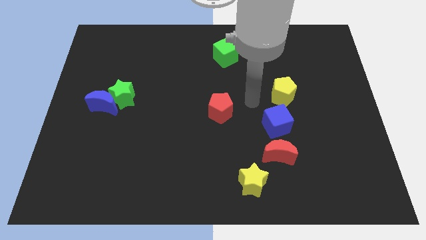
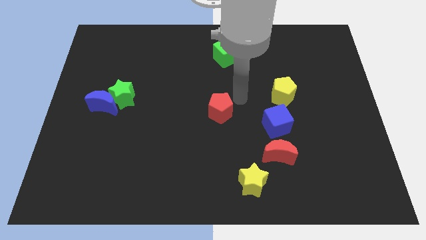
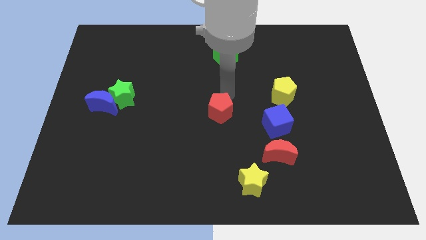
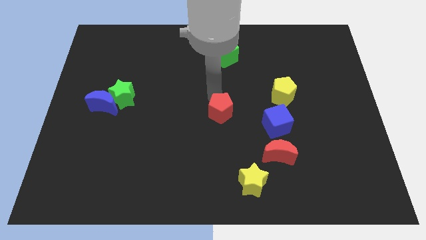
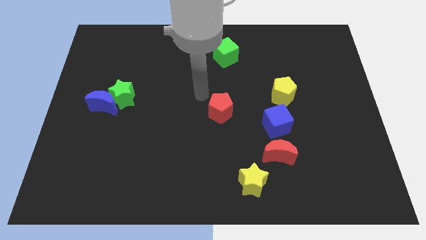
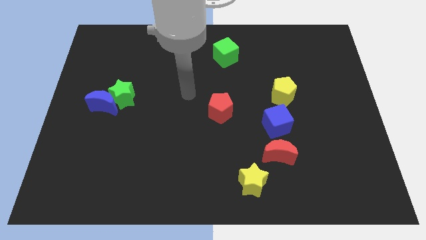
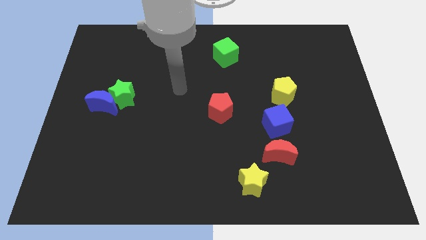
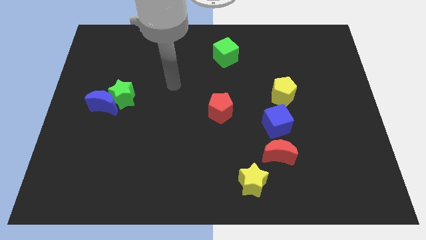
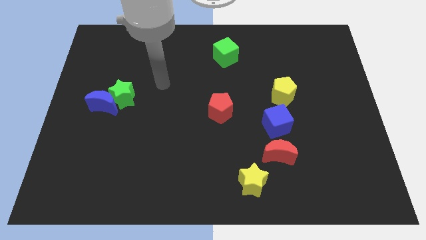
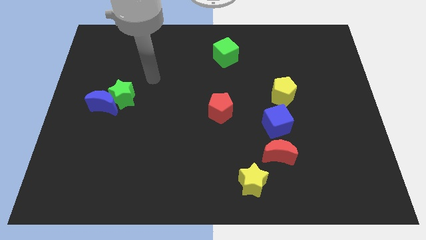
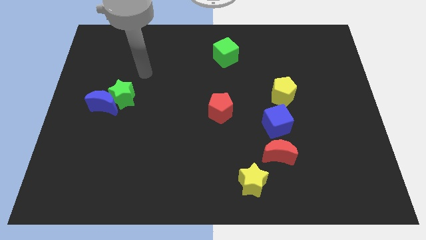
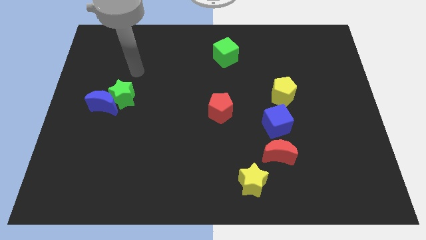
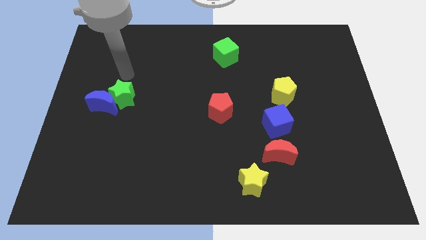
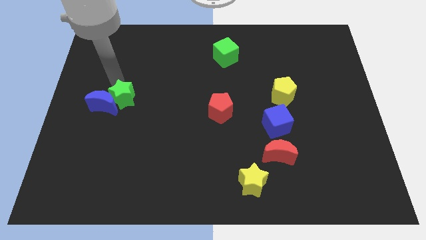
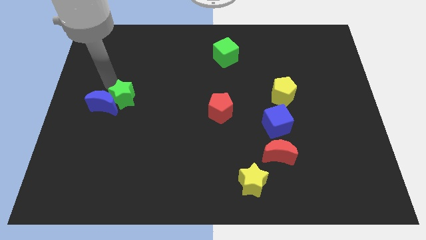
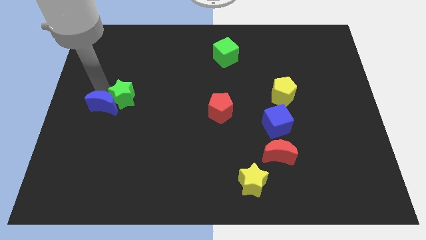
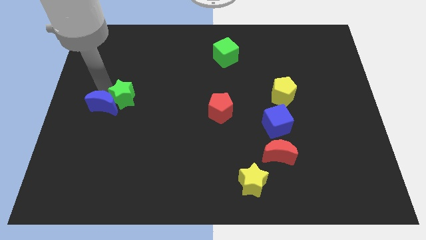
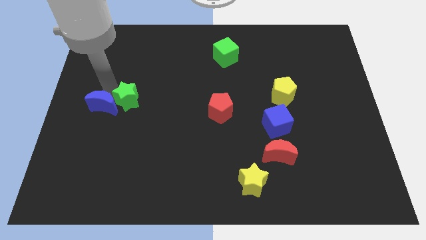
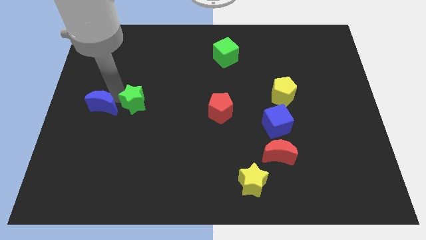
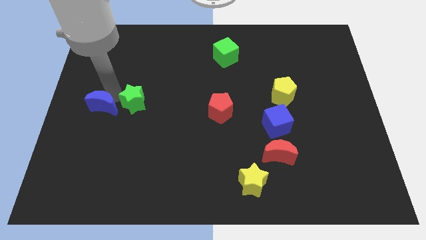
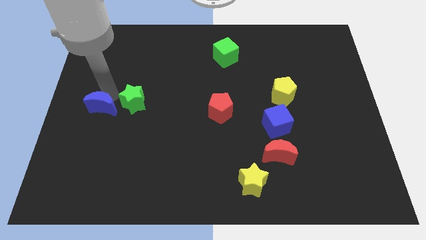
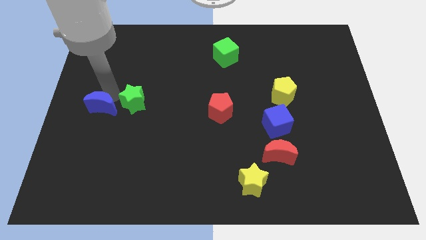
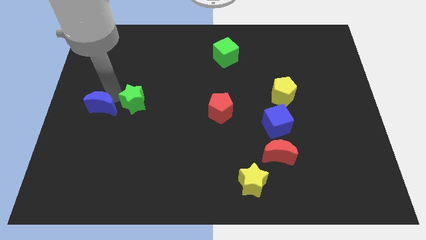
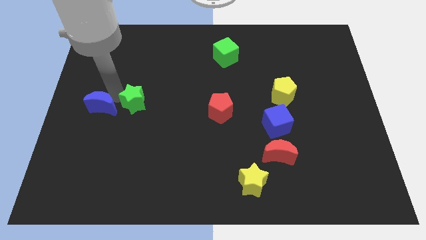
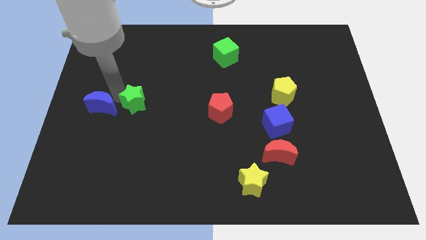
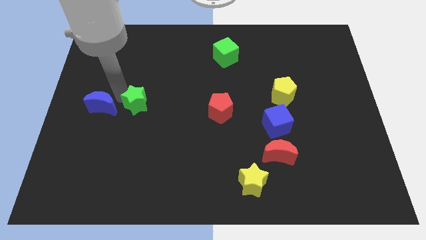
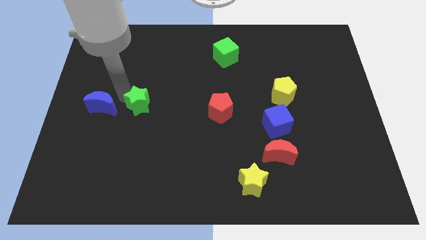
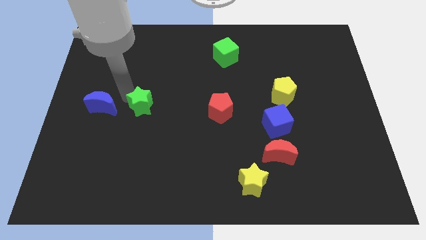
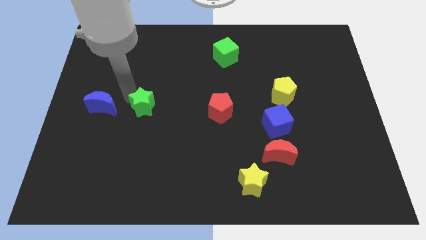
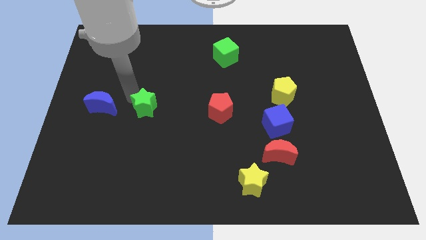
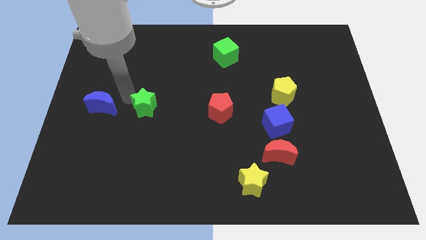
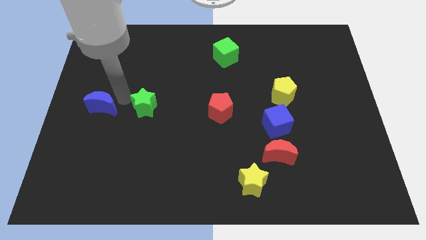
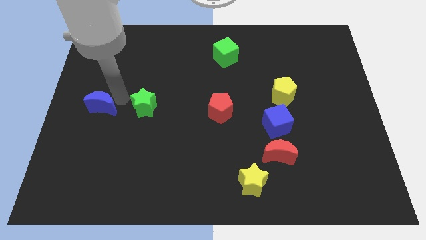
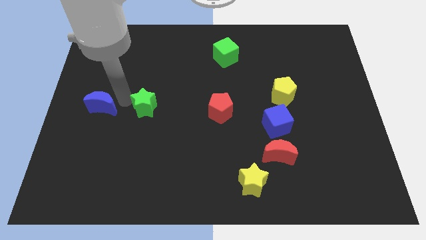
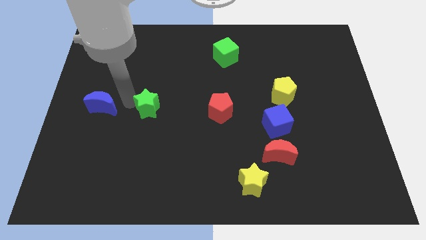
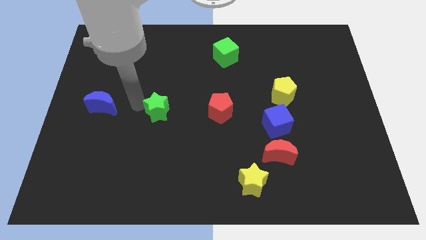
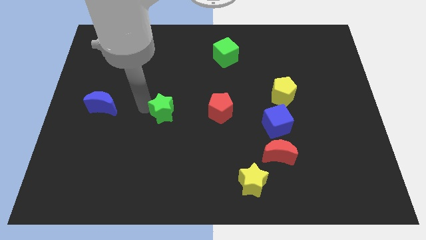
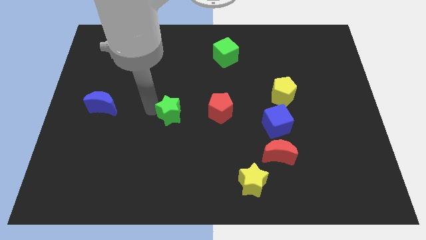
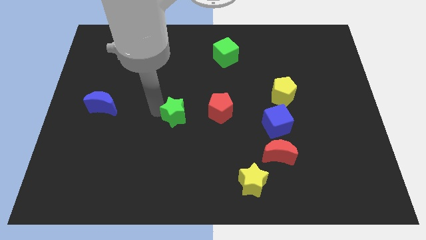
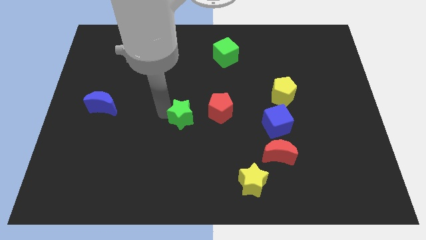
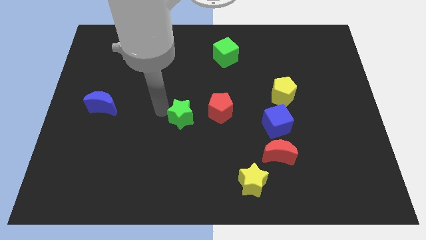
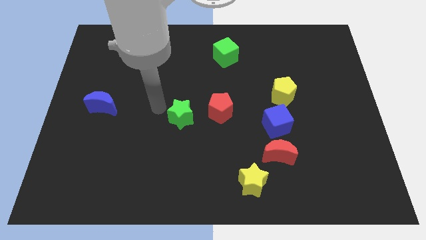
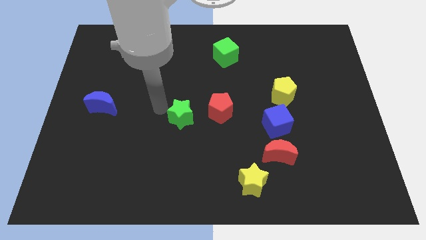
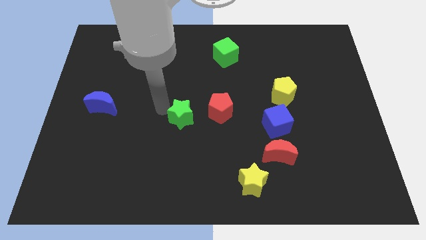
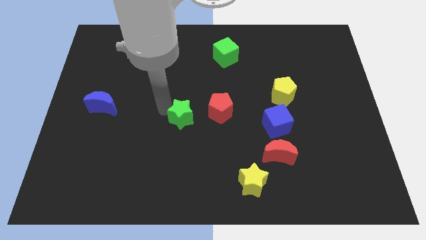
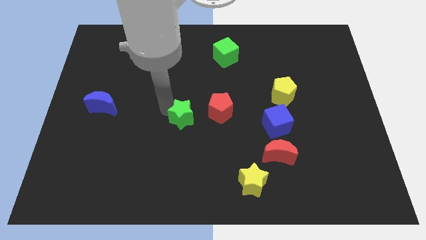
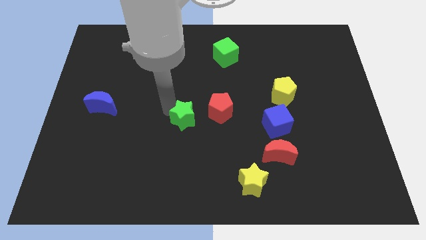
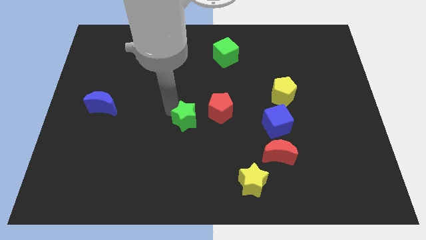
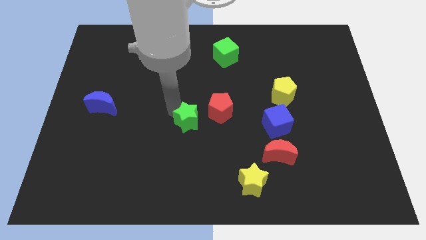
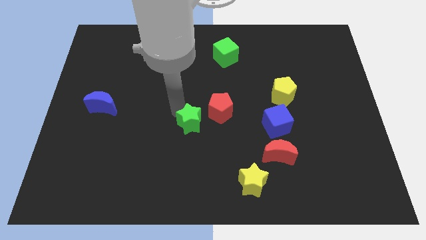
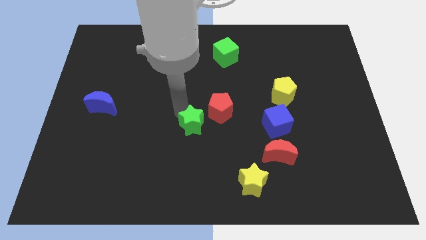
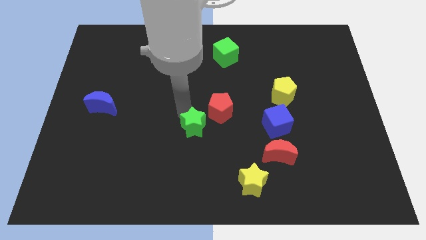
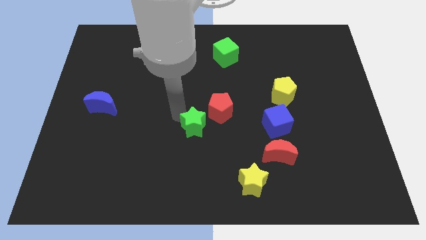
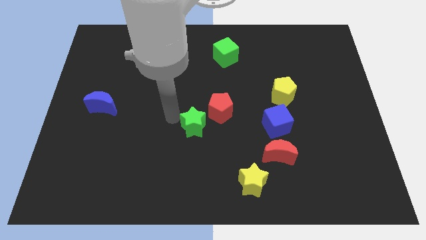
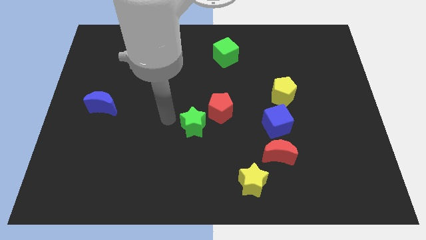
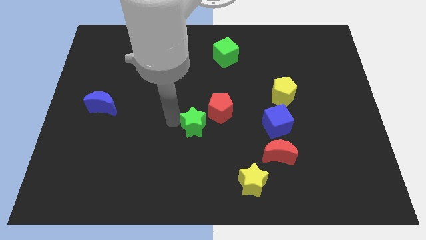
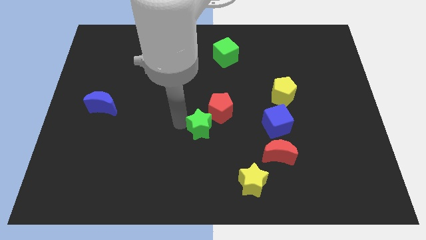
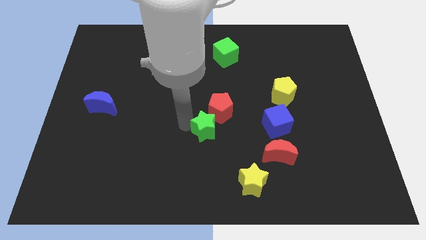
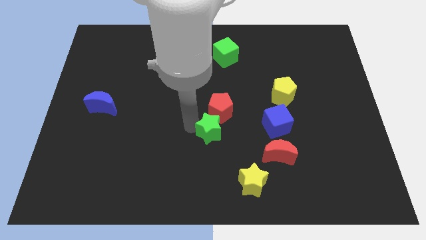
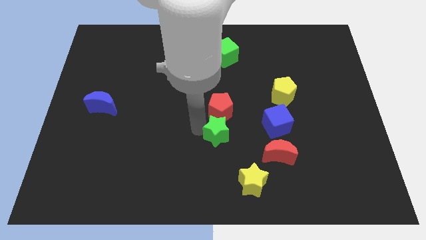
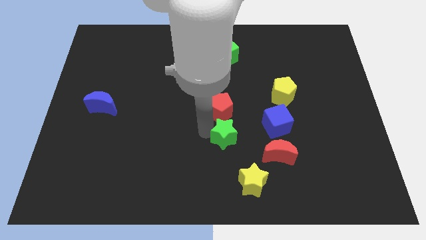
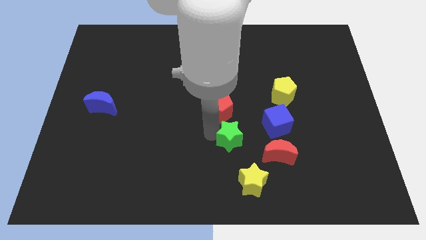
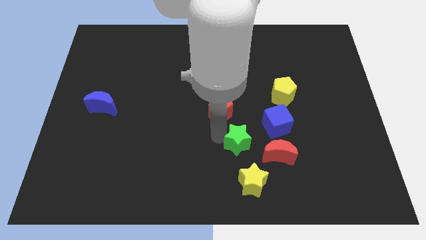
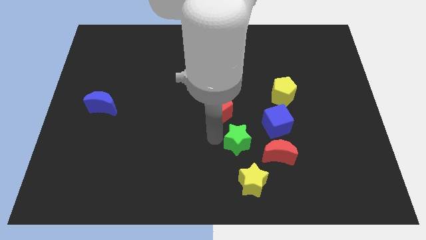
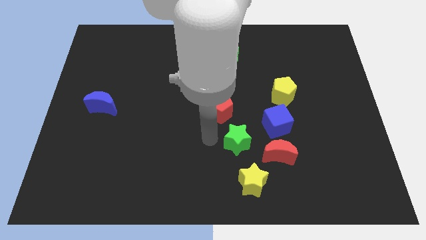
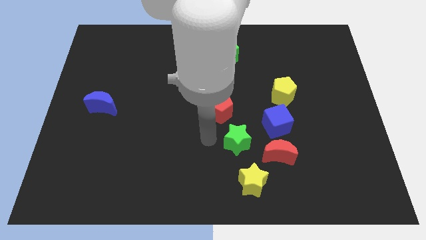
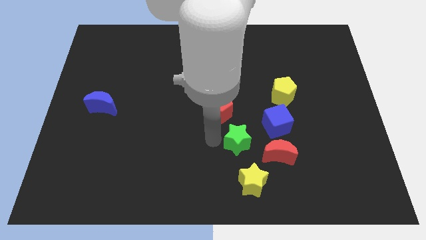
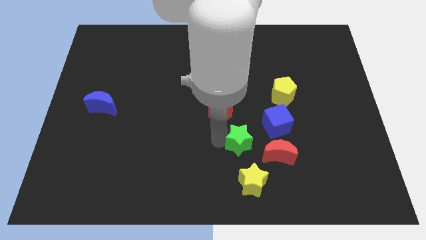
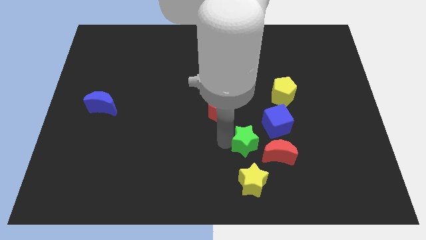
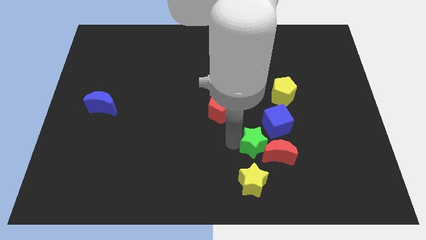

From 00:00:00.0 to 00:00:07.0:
slide the green star close to the red moon

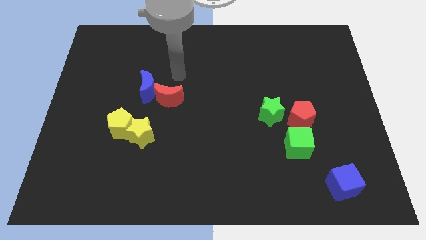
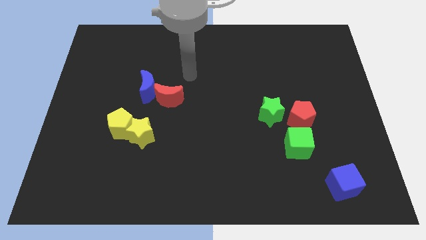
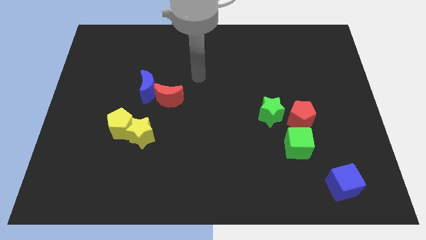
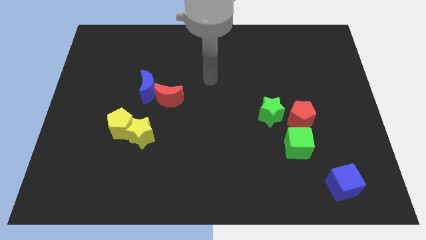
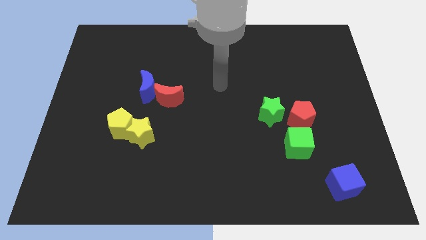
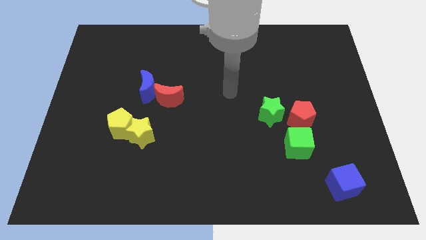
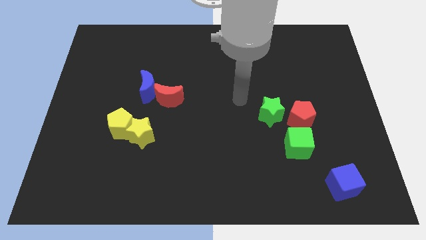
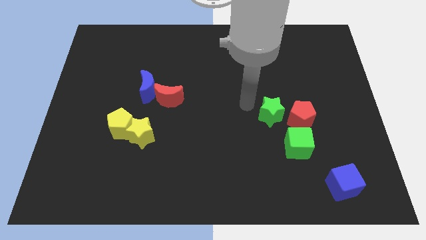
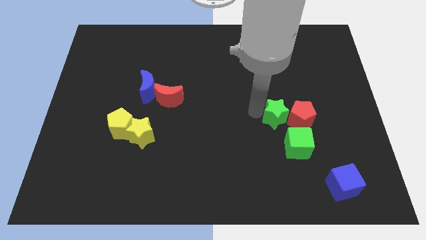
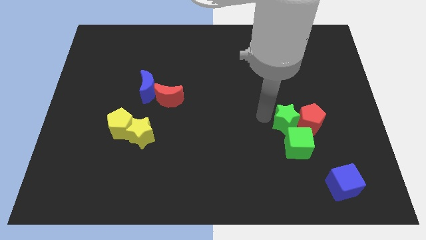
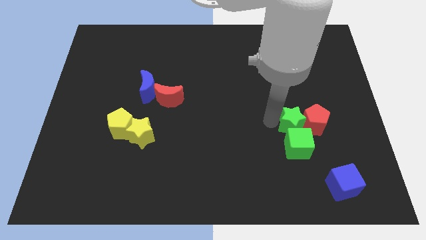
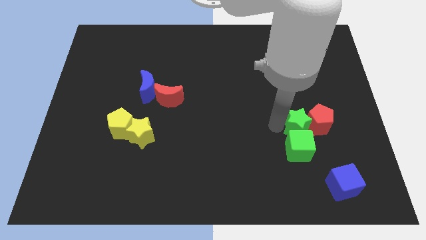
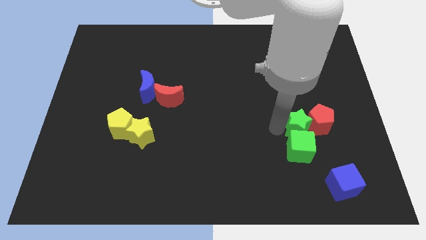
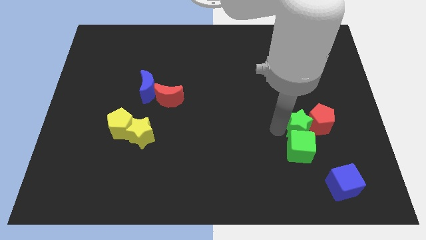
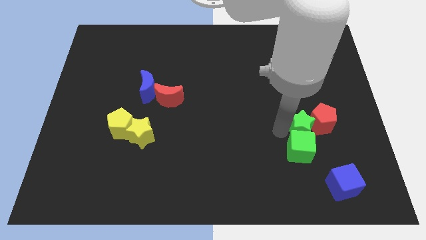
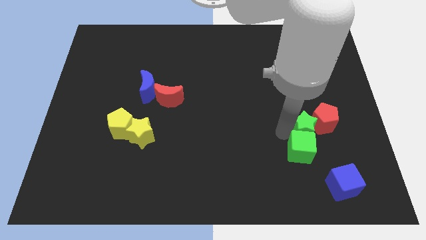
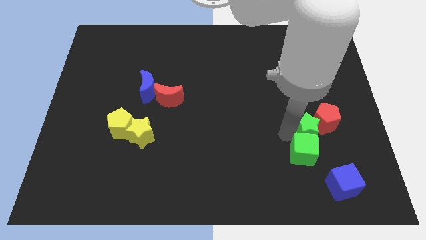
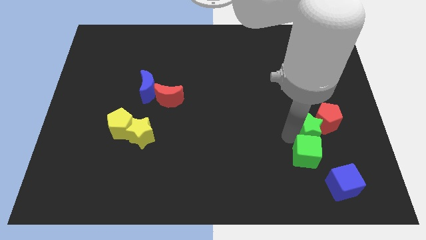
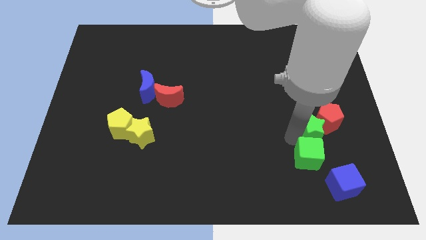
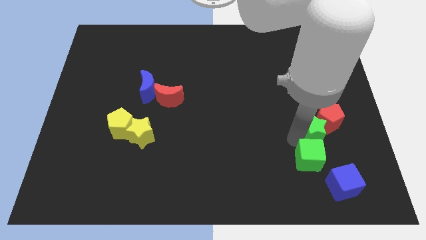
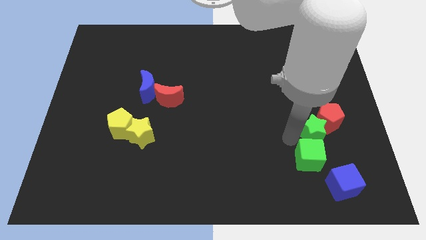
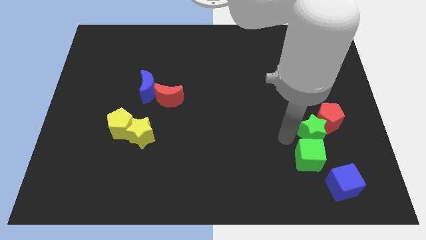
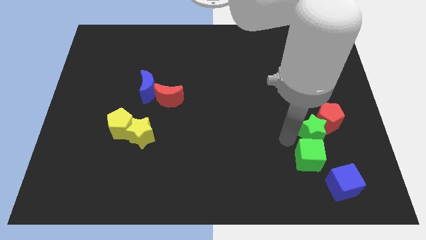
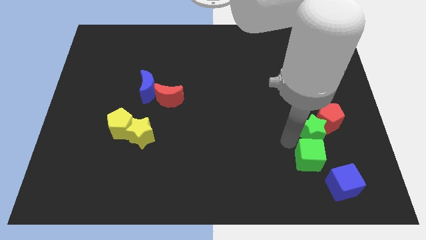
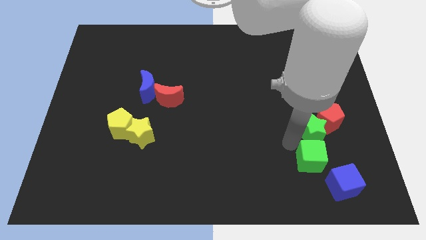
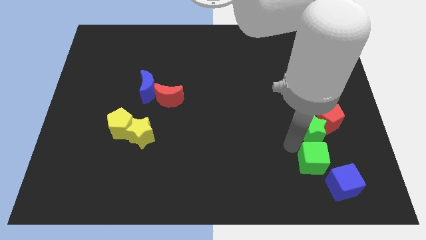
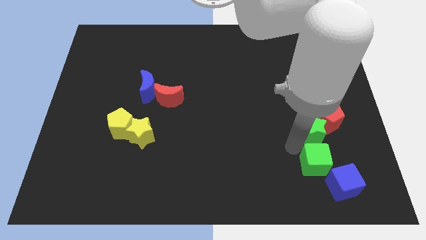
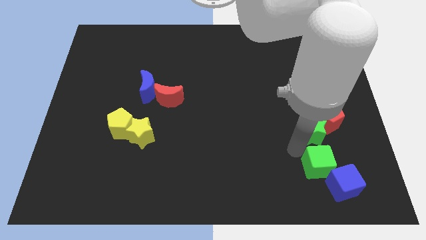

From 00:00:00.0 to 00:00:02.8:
move the green cube next to the blue cube
